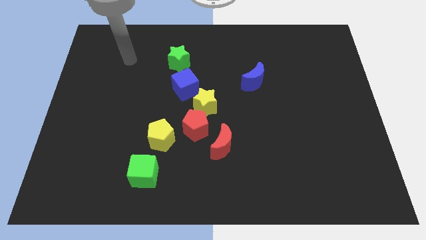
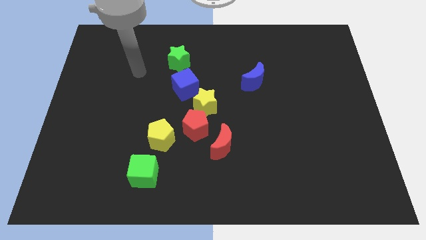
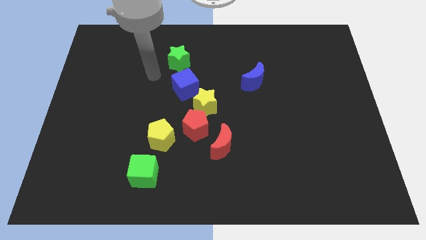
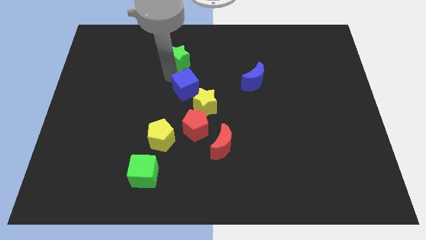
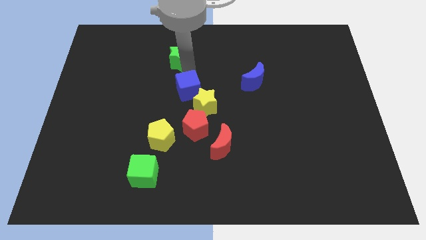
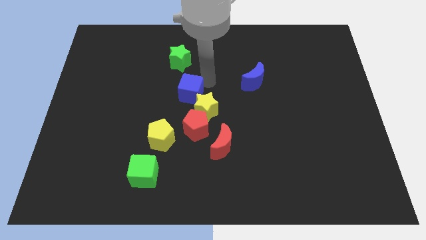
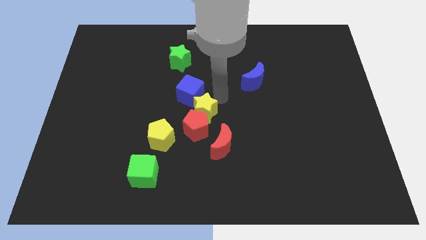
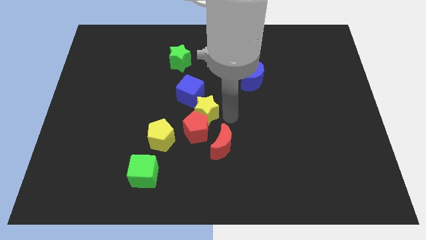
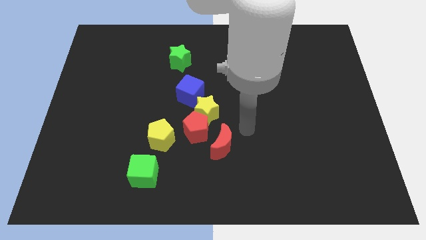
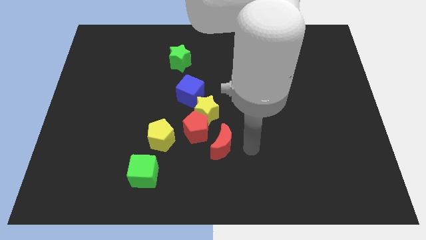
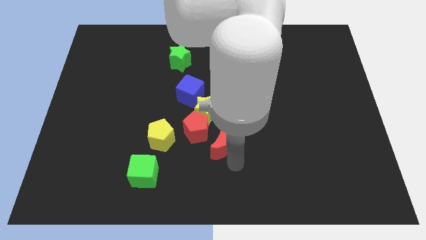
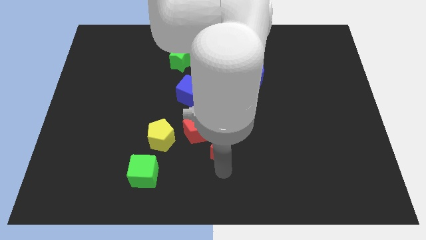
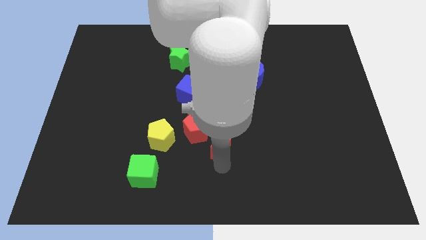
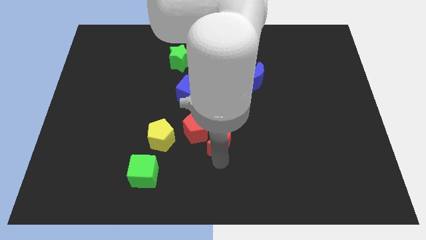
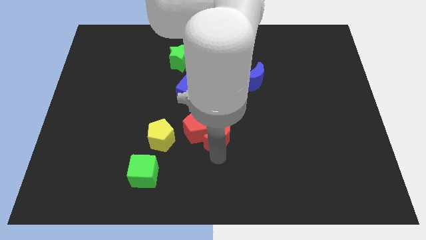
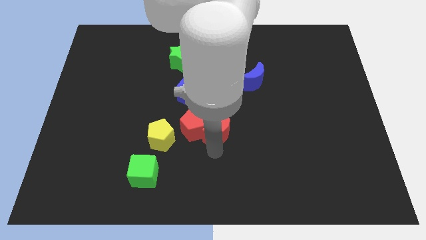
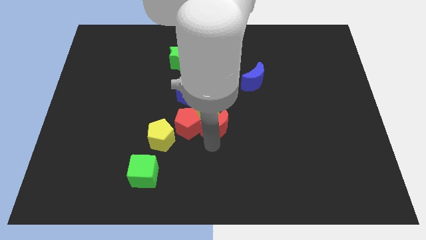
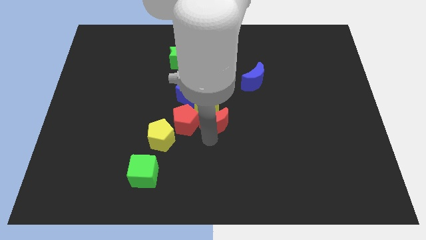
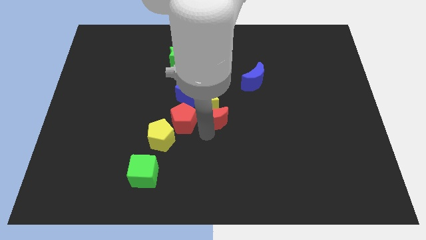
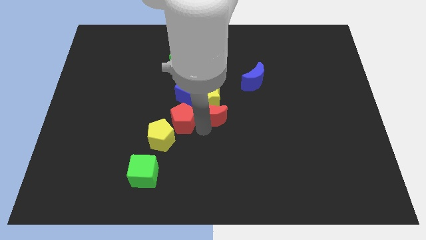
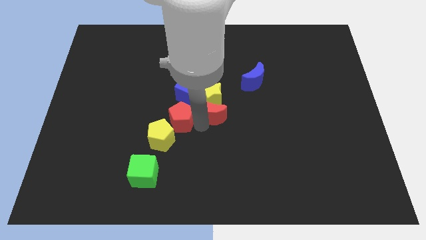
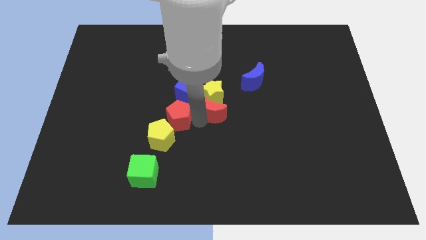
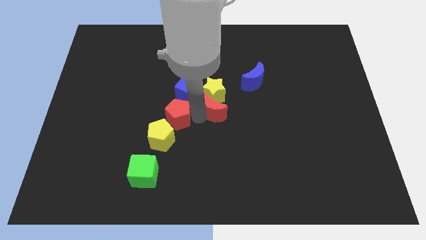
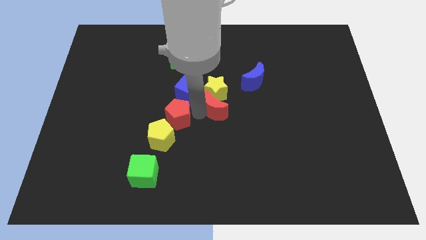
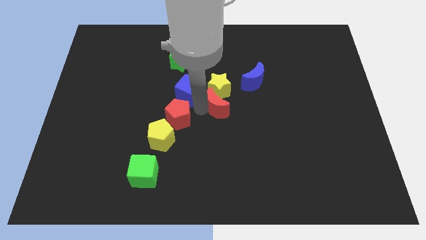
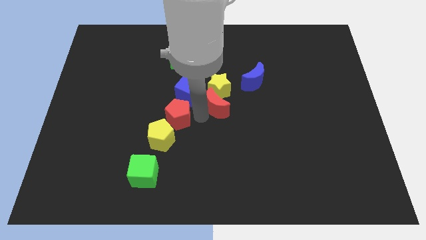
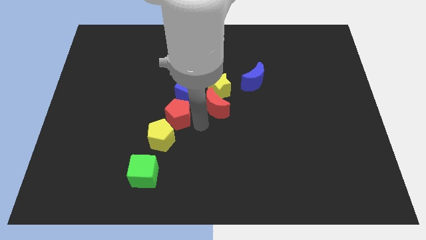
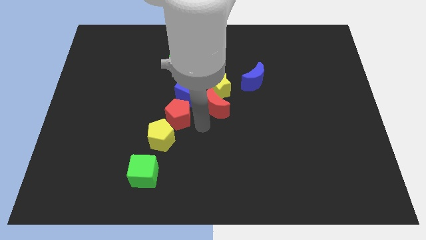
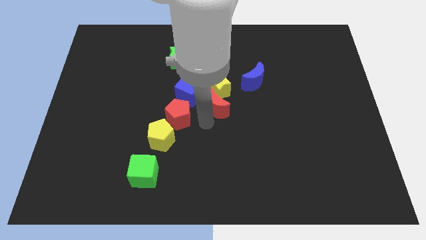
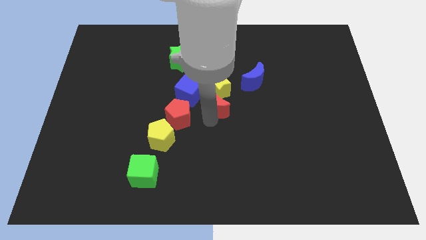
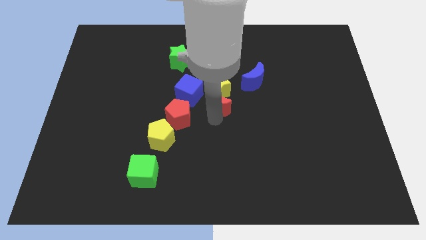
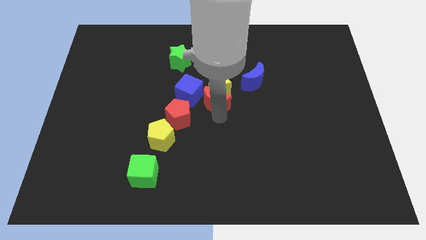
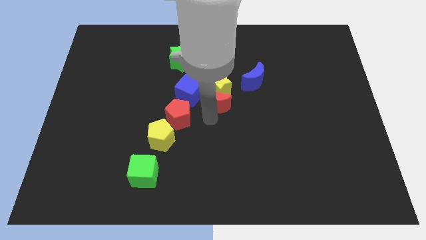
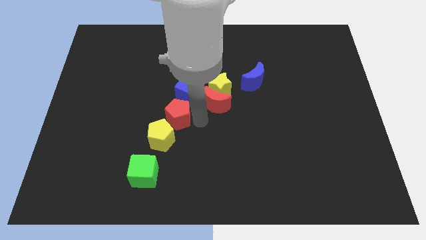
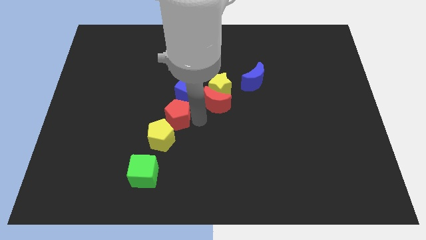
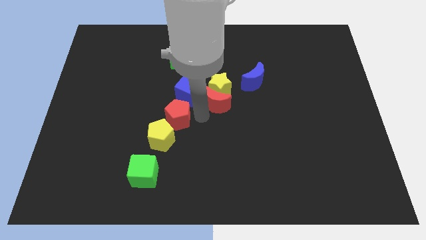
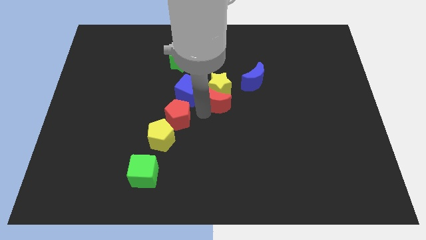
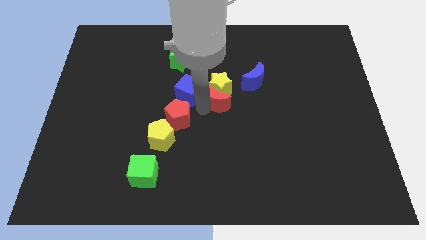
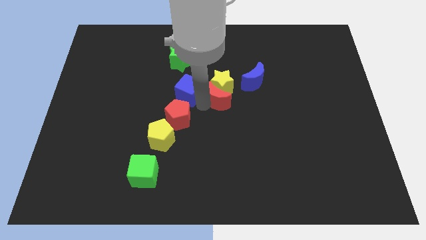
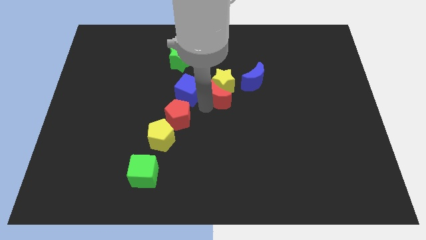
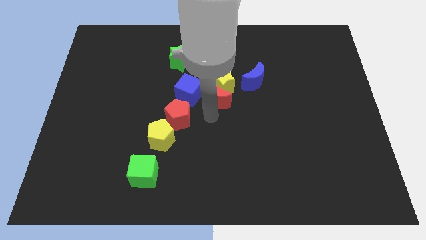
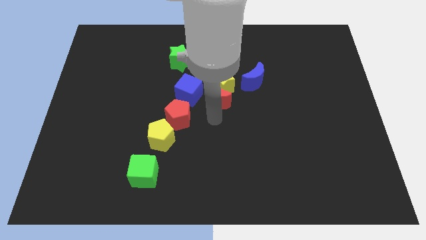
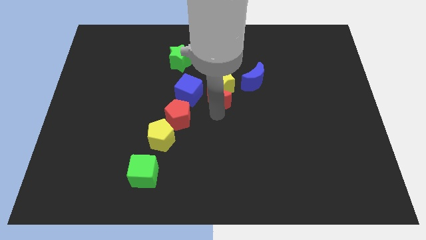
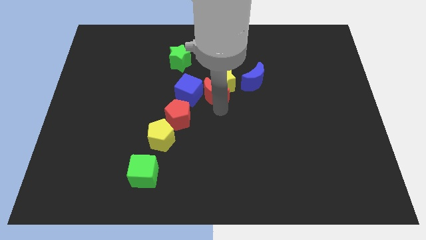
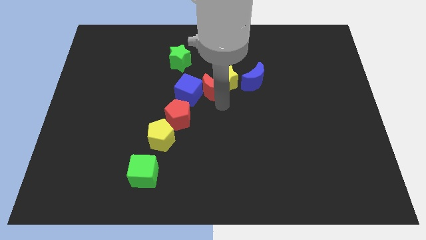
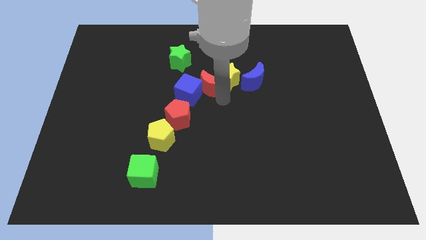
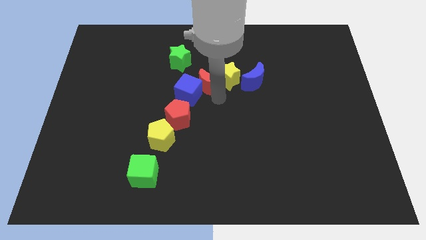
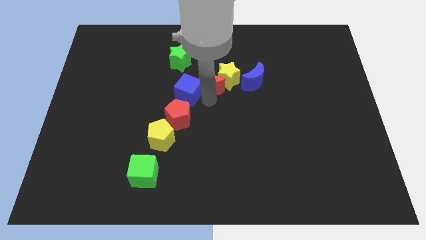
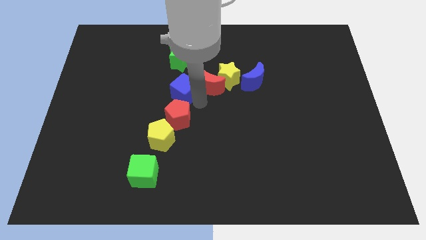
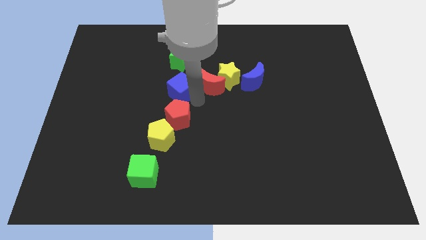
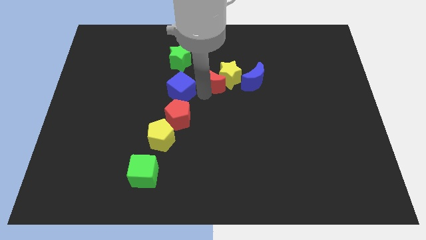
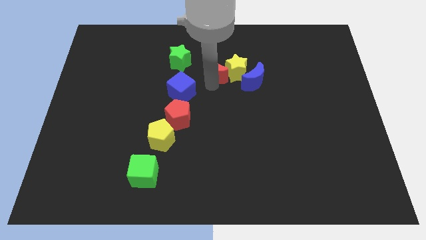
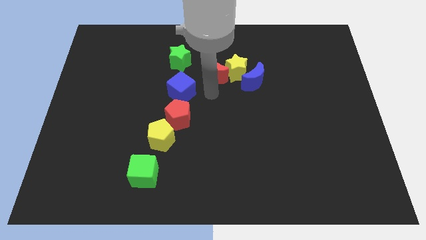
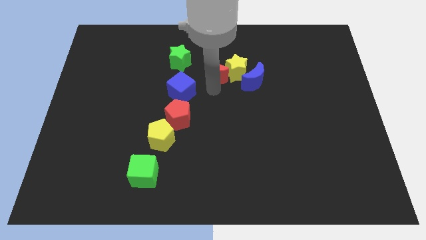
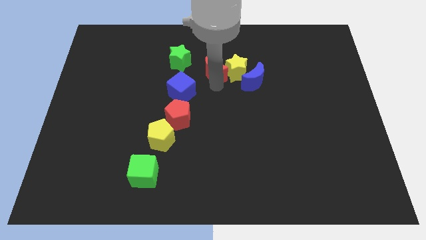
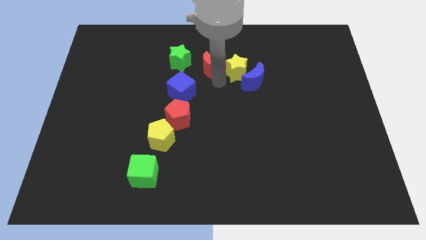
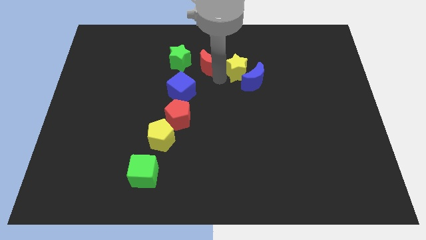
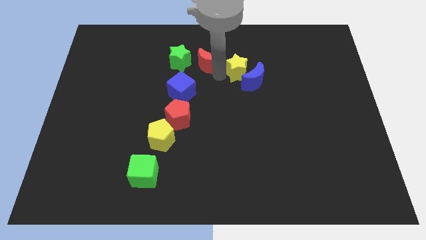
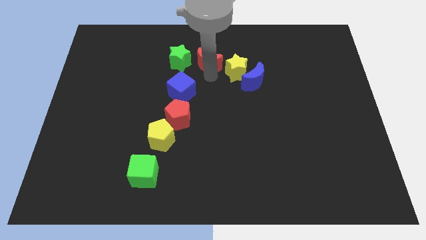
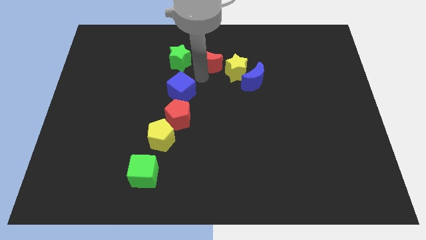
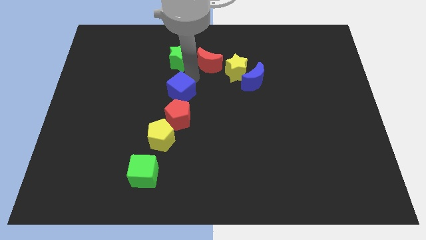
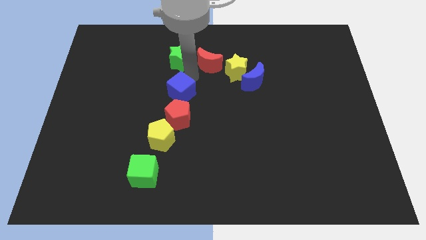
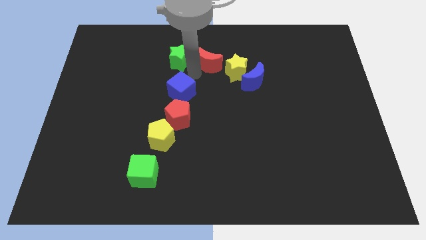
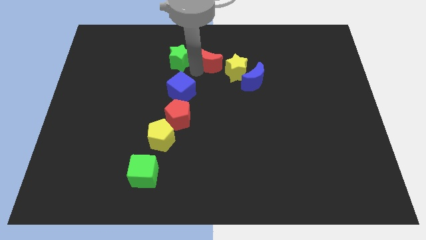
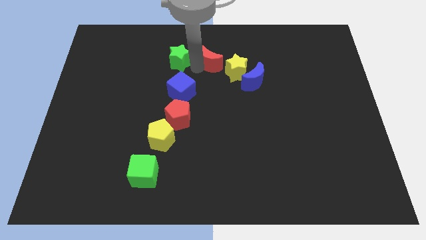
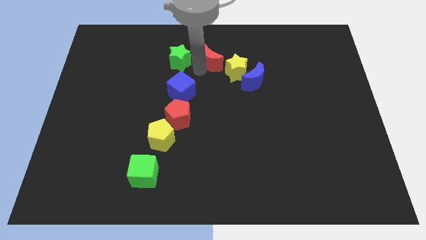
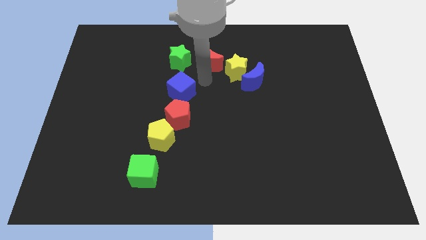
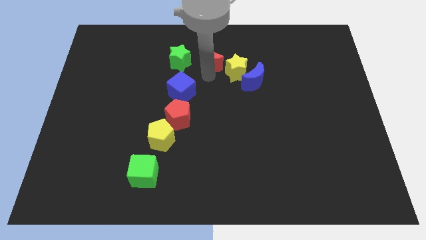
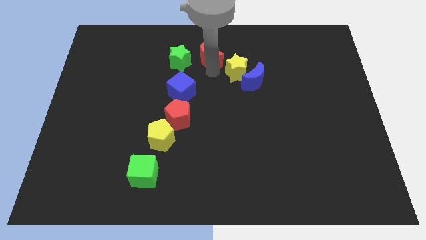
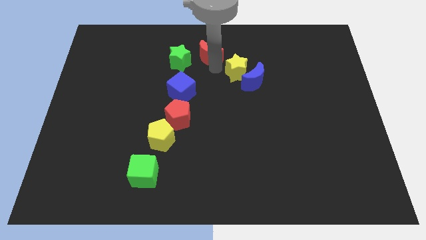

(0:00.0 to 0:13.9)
move the red moon to the top
